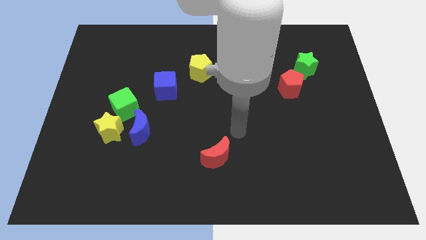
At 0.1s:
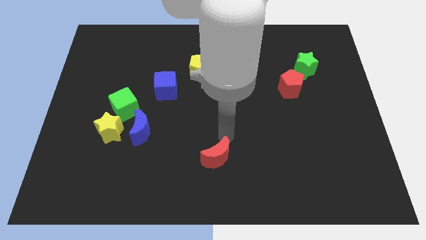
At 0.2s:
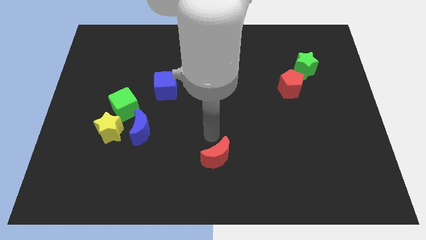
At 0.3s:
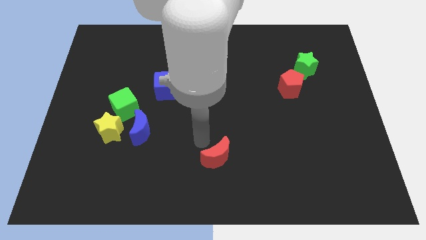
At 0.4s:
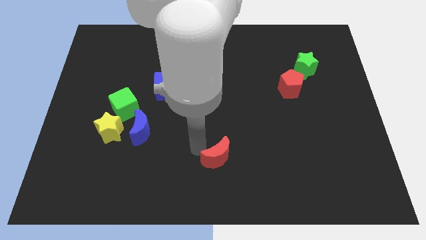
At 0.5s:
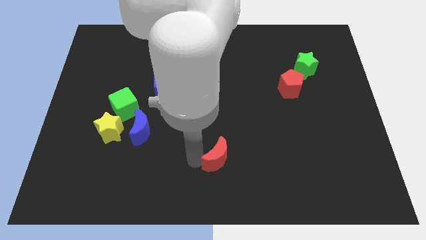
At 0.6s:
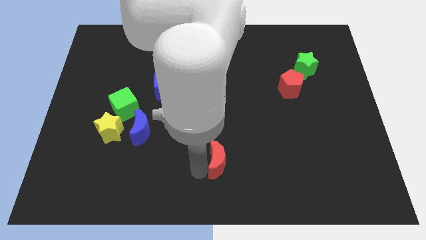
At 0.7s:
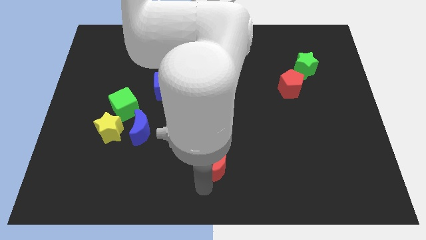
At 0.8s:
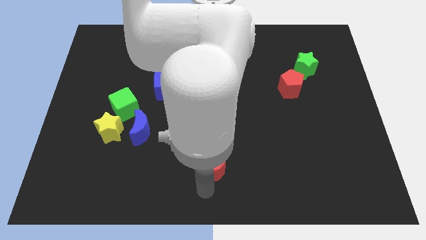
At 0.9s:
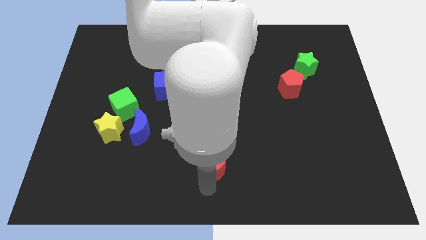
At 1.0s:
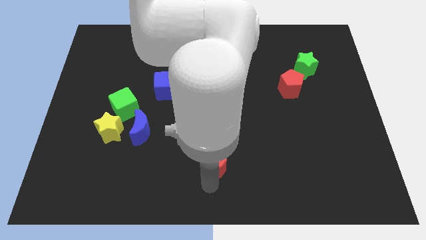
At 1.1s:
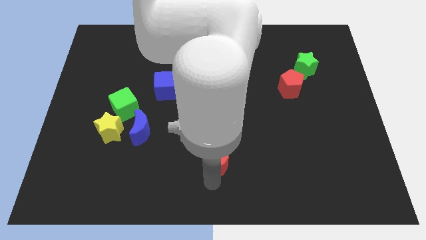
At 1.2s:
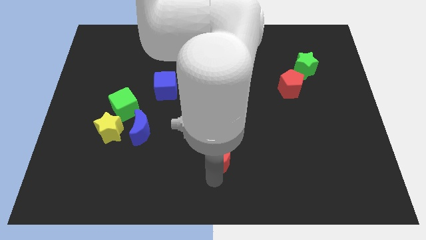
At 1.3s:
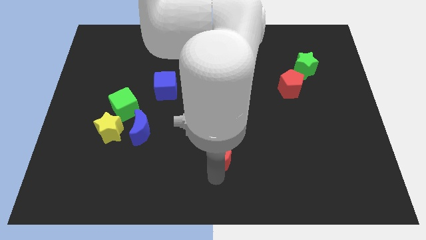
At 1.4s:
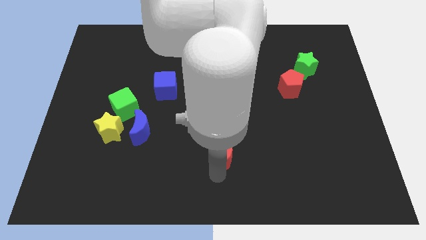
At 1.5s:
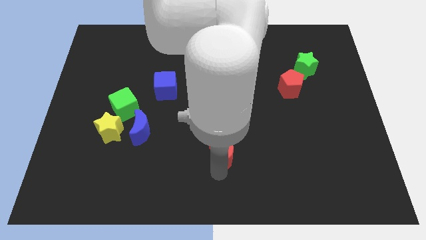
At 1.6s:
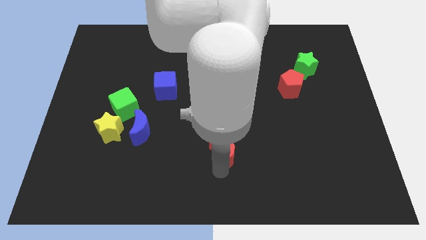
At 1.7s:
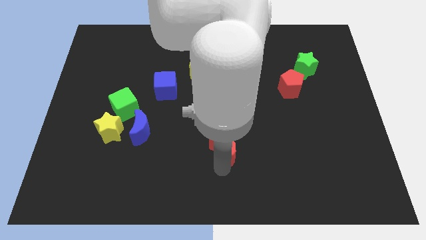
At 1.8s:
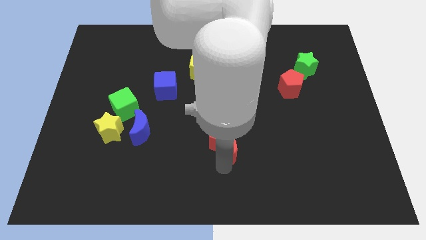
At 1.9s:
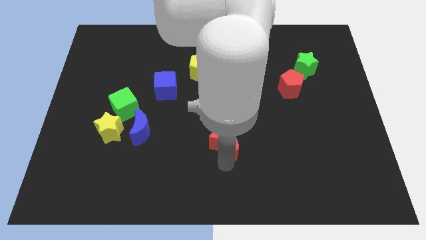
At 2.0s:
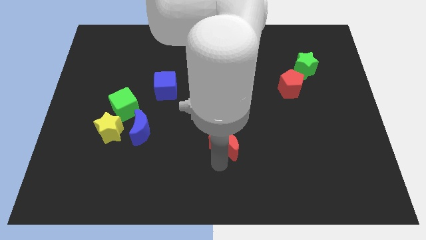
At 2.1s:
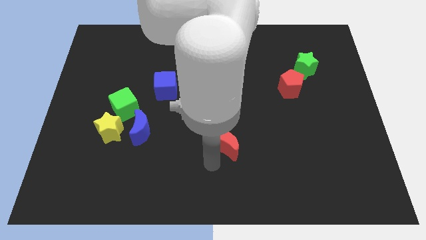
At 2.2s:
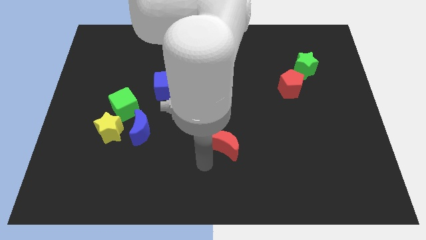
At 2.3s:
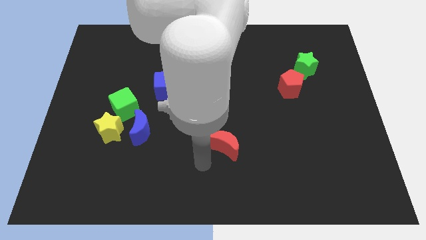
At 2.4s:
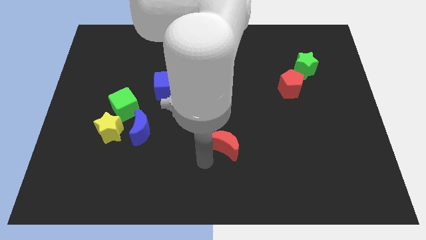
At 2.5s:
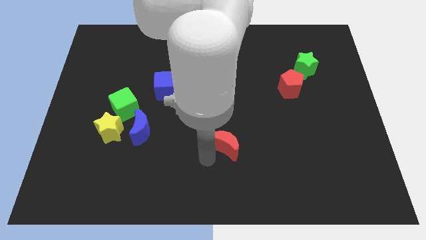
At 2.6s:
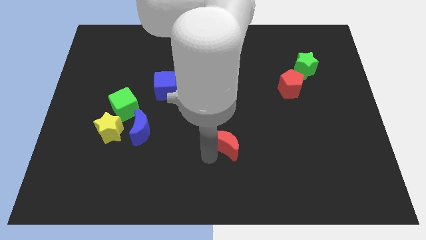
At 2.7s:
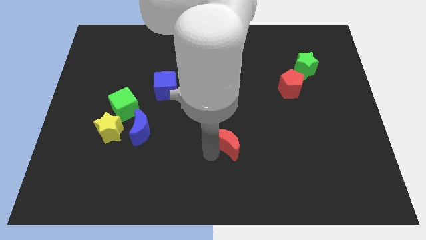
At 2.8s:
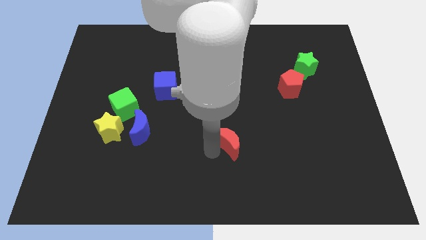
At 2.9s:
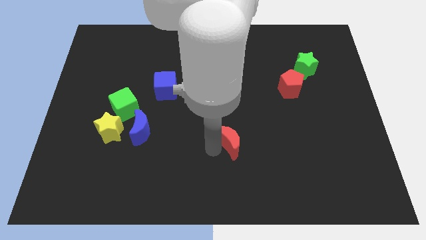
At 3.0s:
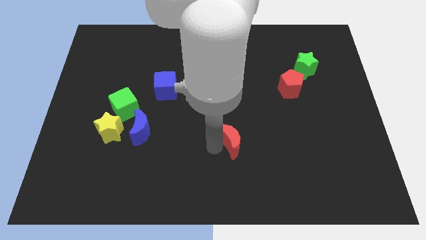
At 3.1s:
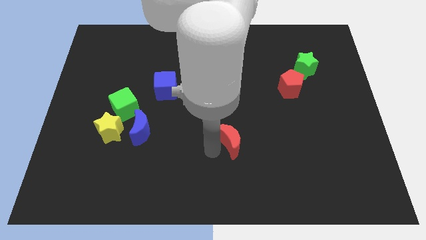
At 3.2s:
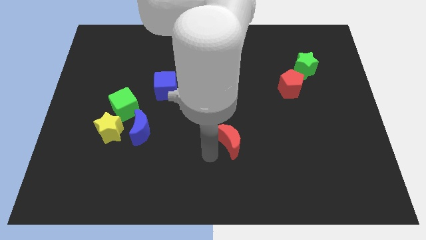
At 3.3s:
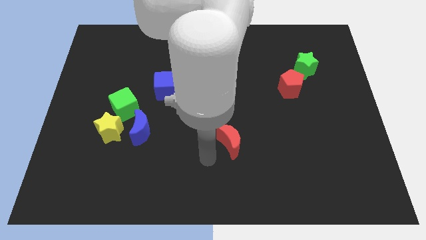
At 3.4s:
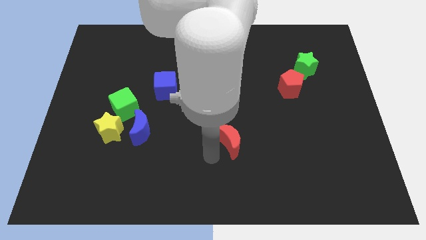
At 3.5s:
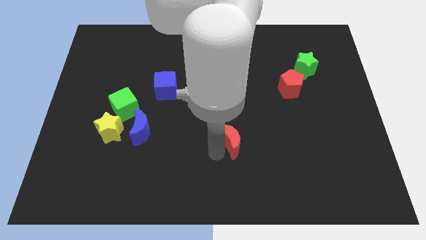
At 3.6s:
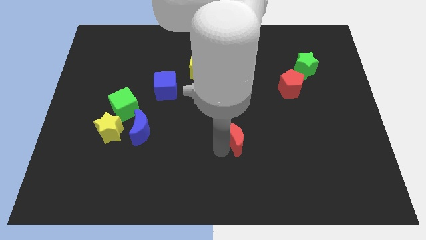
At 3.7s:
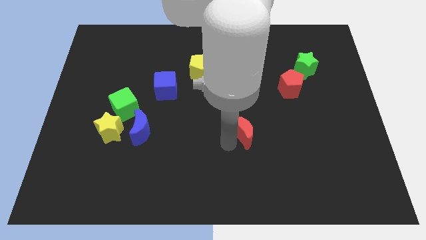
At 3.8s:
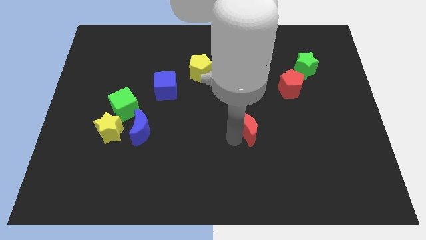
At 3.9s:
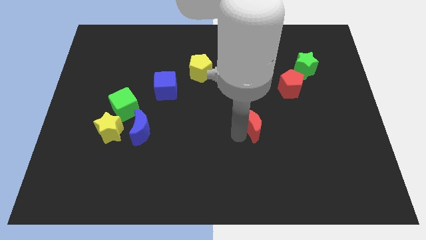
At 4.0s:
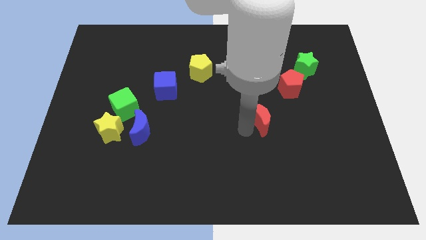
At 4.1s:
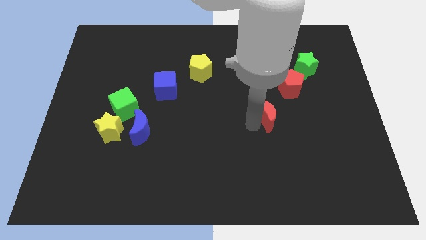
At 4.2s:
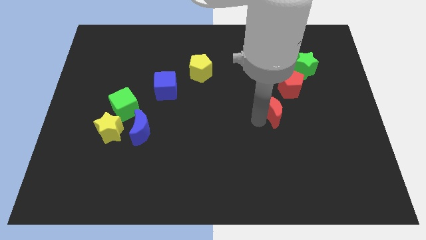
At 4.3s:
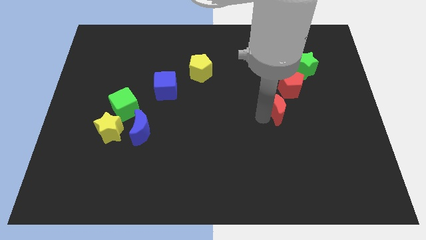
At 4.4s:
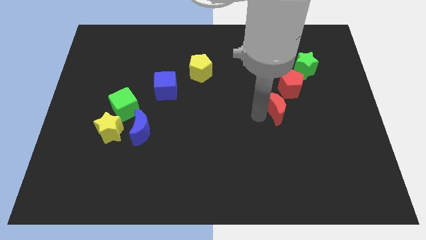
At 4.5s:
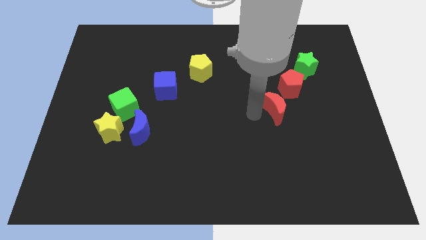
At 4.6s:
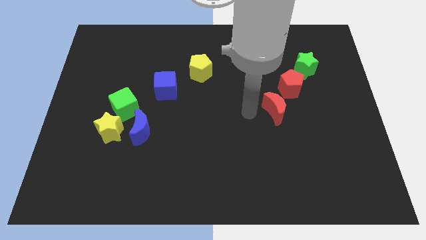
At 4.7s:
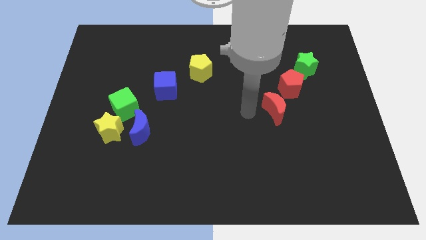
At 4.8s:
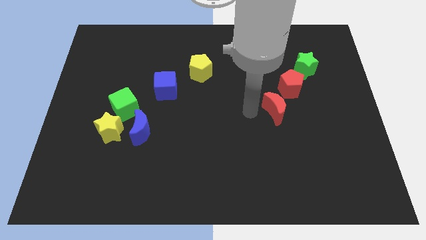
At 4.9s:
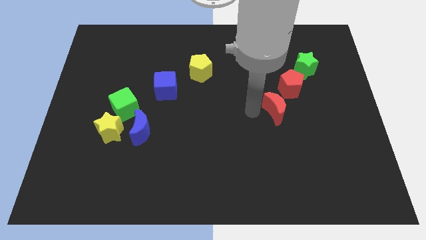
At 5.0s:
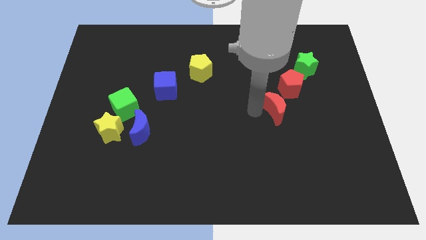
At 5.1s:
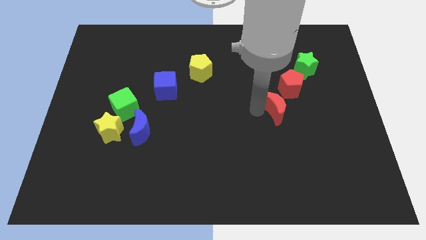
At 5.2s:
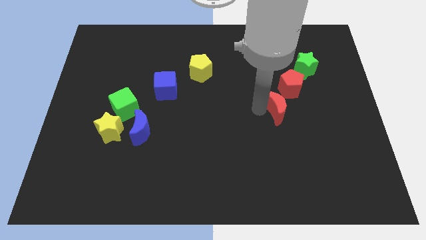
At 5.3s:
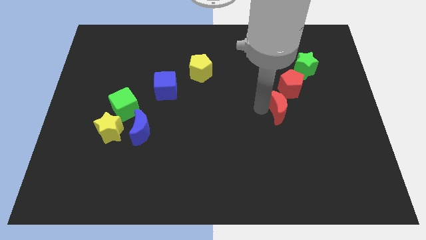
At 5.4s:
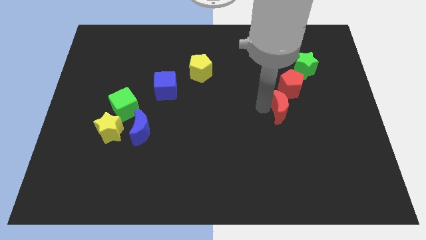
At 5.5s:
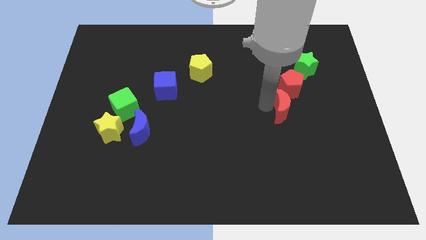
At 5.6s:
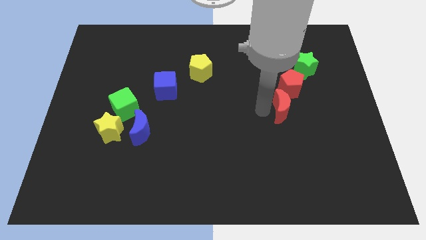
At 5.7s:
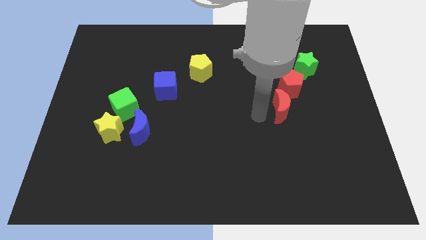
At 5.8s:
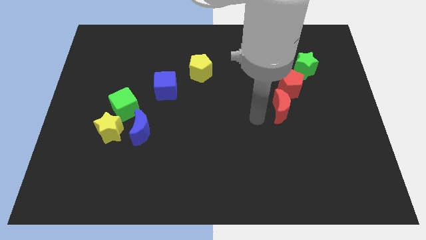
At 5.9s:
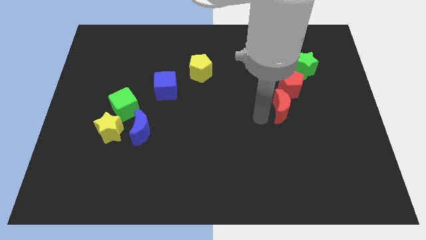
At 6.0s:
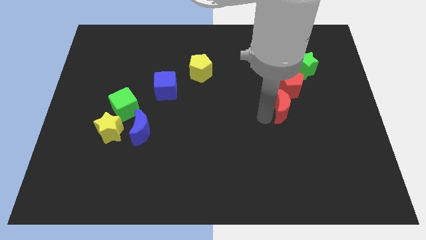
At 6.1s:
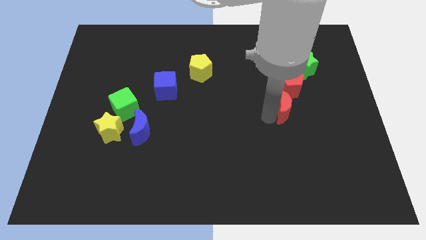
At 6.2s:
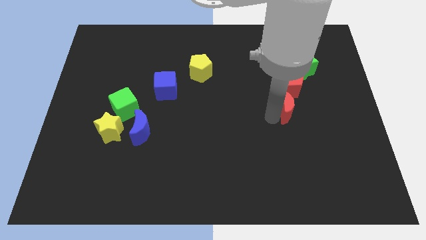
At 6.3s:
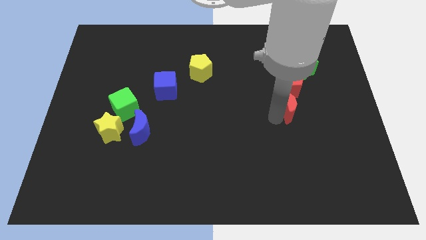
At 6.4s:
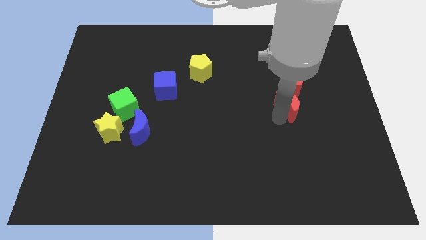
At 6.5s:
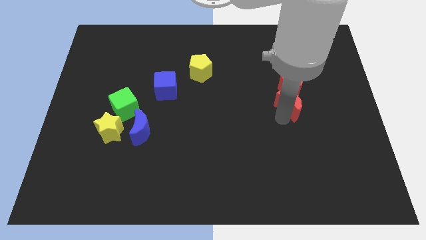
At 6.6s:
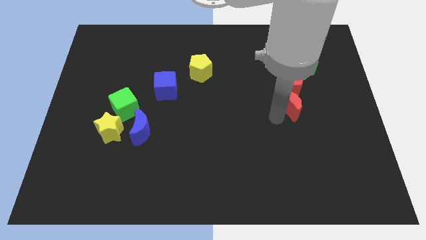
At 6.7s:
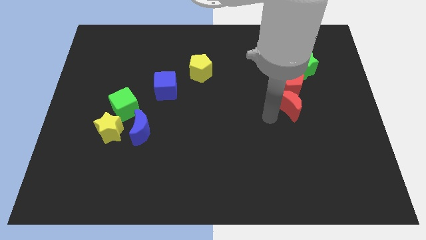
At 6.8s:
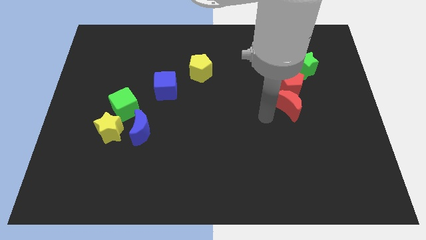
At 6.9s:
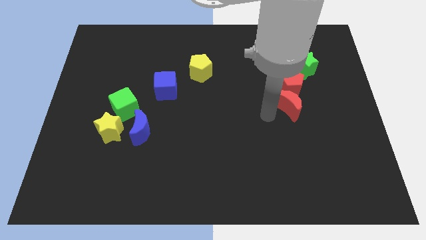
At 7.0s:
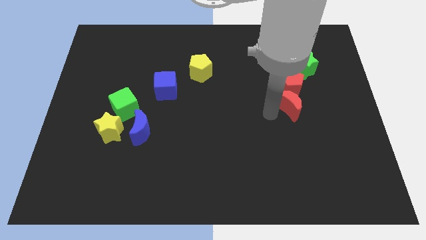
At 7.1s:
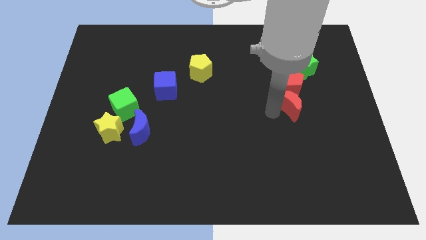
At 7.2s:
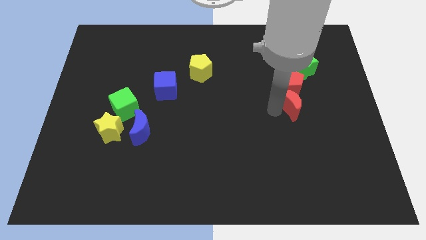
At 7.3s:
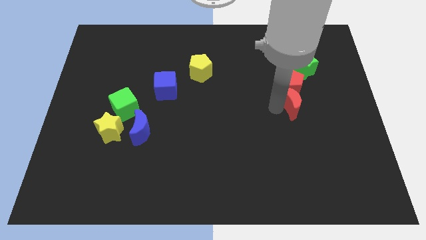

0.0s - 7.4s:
push the red moon to the bottom of the green star
